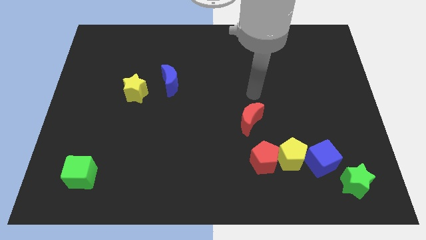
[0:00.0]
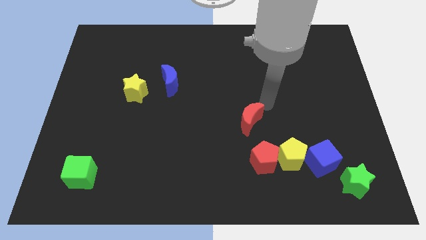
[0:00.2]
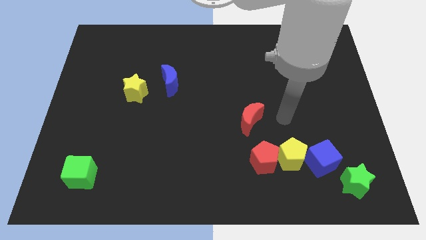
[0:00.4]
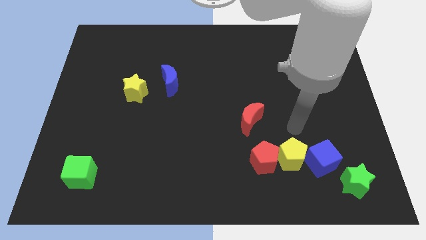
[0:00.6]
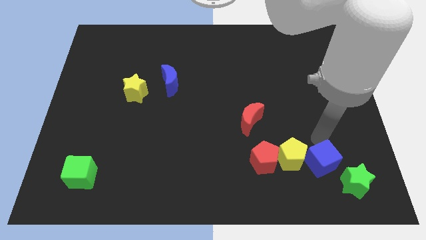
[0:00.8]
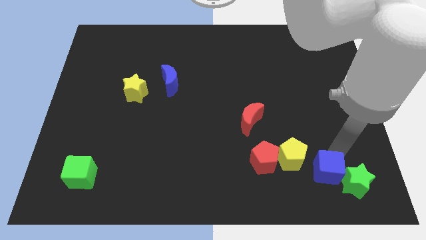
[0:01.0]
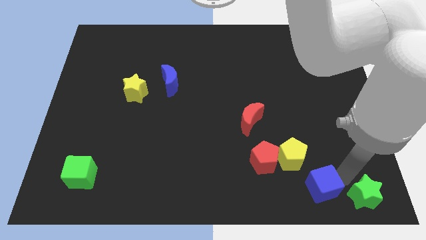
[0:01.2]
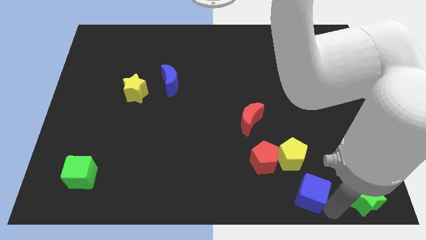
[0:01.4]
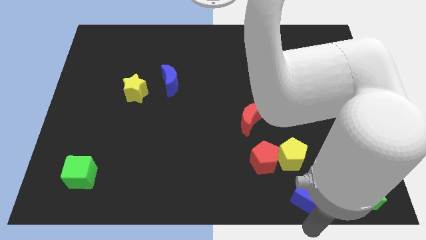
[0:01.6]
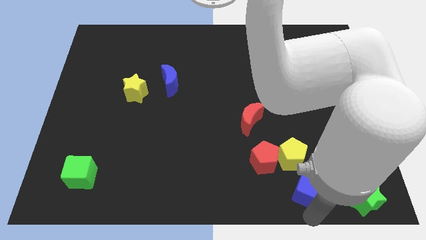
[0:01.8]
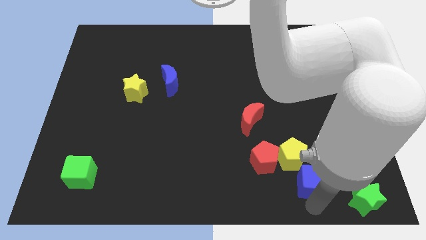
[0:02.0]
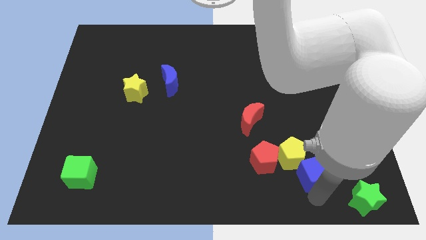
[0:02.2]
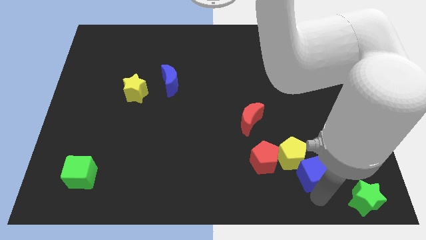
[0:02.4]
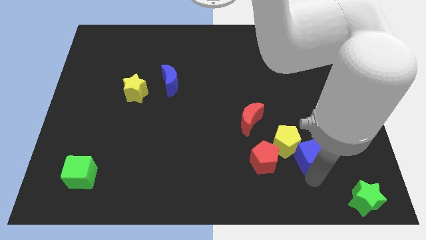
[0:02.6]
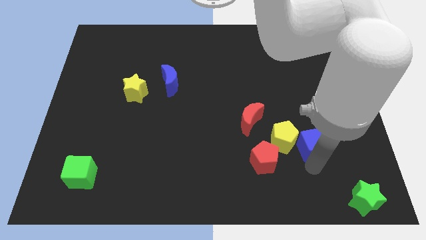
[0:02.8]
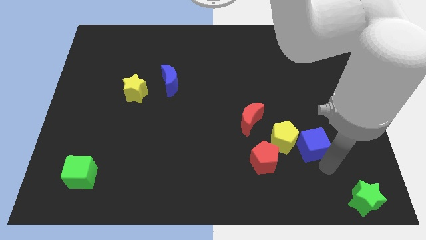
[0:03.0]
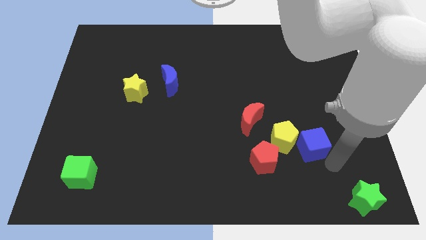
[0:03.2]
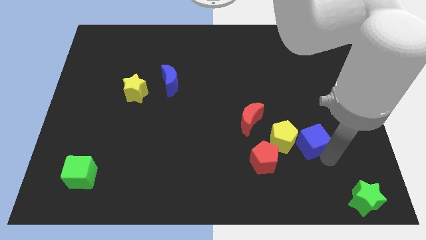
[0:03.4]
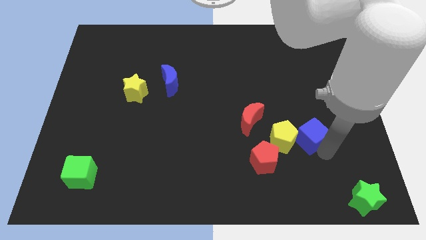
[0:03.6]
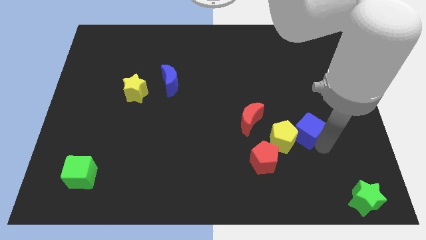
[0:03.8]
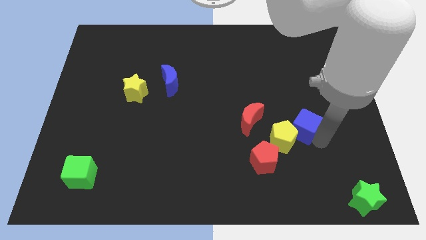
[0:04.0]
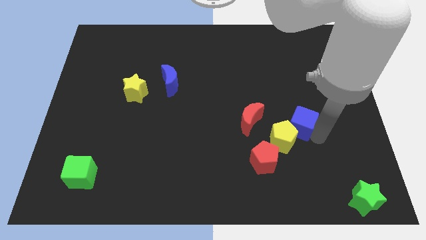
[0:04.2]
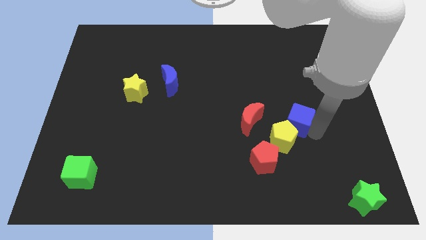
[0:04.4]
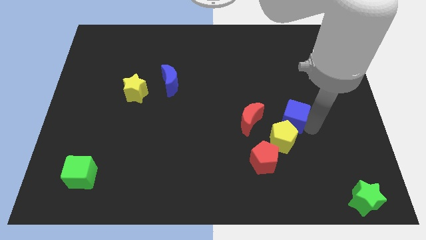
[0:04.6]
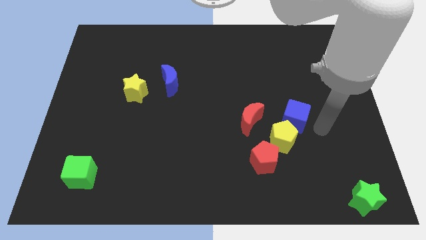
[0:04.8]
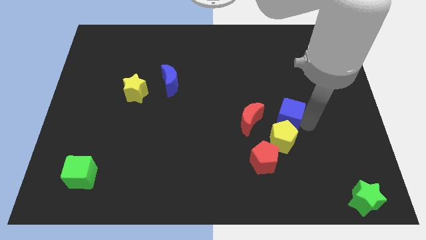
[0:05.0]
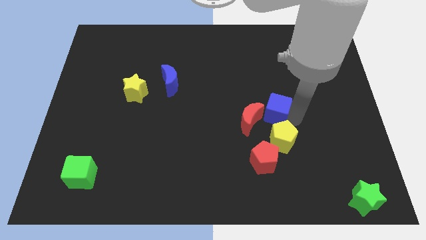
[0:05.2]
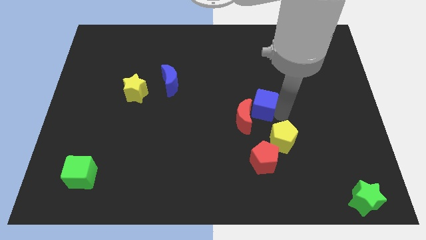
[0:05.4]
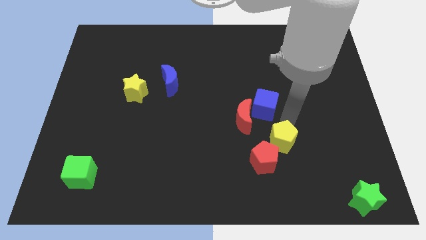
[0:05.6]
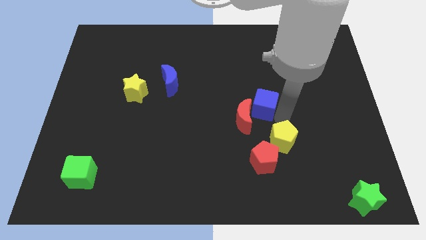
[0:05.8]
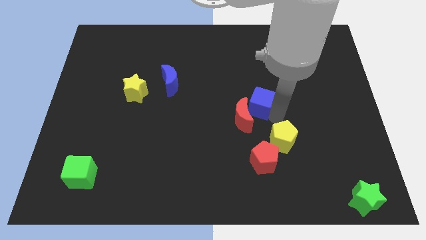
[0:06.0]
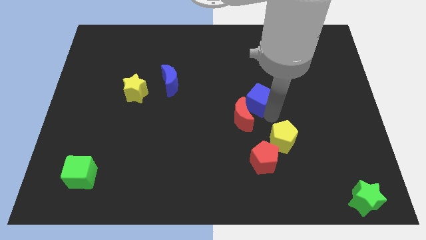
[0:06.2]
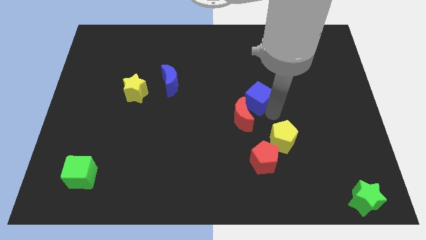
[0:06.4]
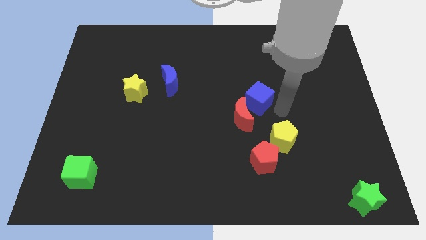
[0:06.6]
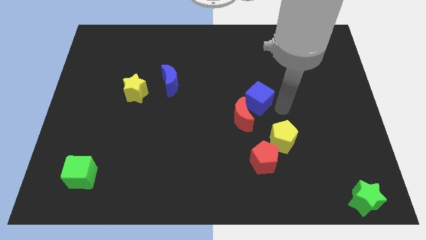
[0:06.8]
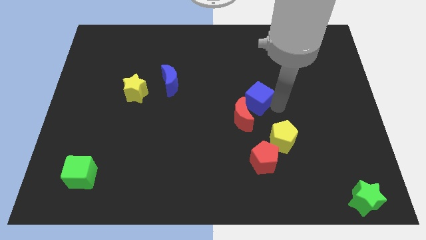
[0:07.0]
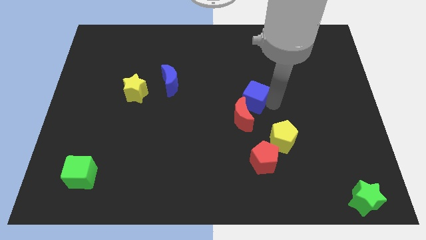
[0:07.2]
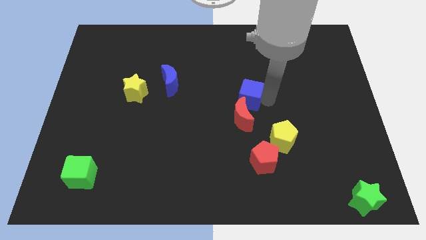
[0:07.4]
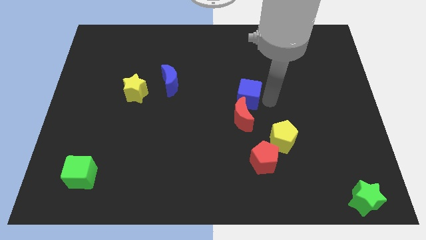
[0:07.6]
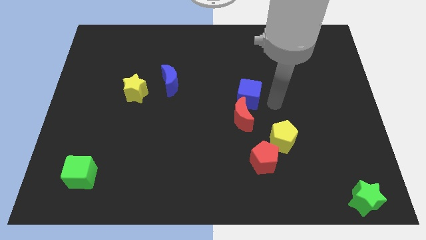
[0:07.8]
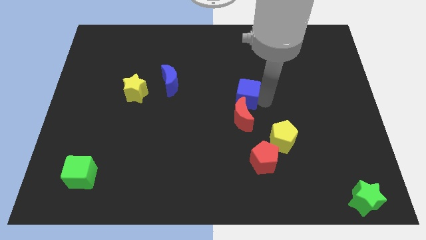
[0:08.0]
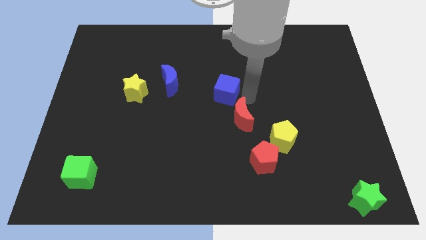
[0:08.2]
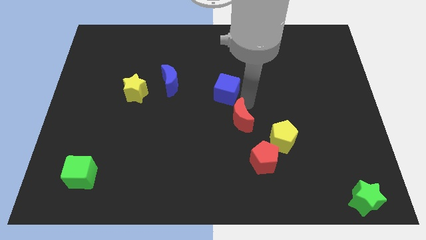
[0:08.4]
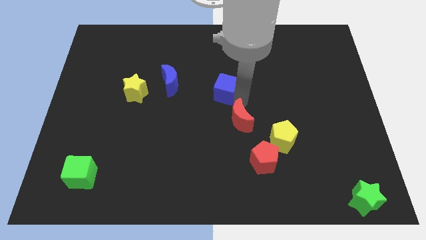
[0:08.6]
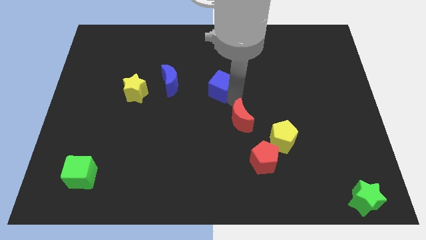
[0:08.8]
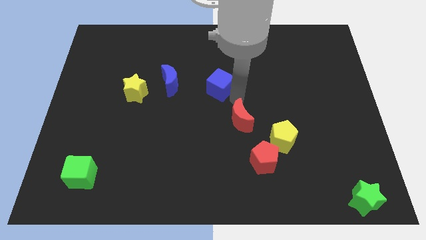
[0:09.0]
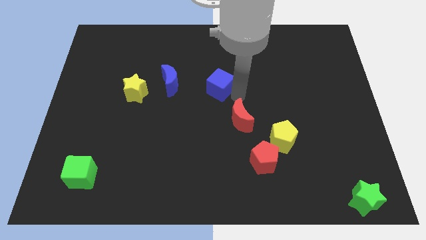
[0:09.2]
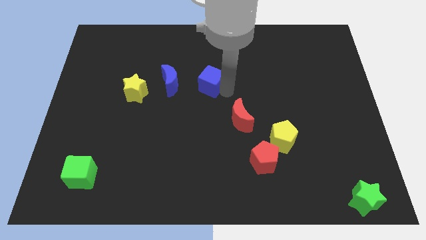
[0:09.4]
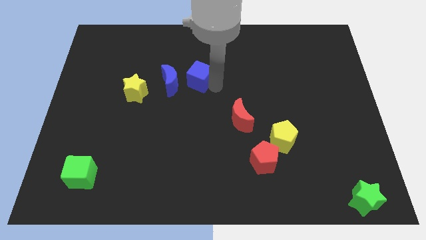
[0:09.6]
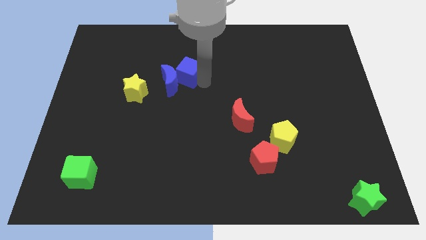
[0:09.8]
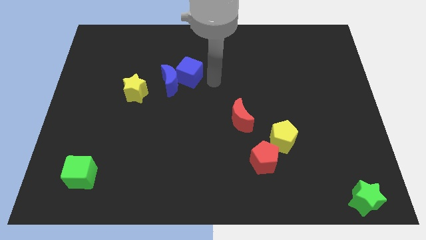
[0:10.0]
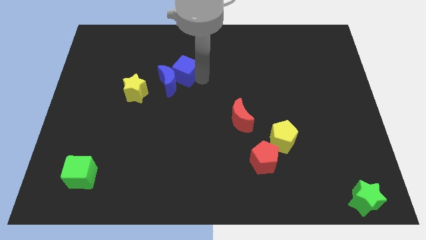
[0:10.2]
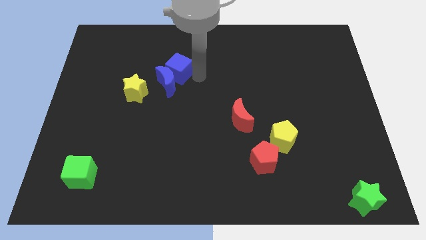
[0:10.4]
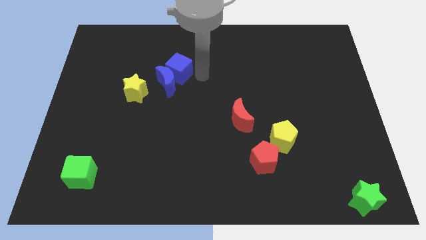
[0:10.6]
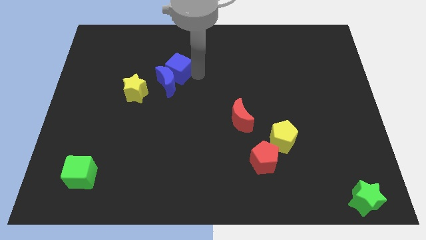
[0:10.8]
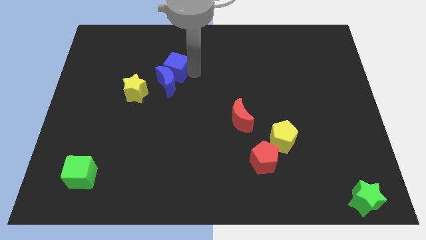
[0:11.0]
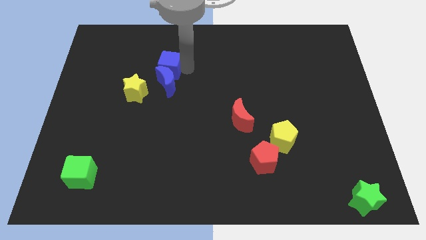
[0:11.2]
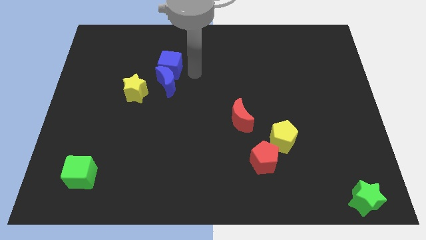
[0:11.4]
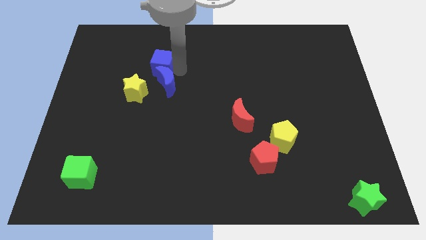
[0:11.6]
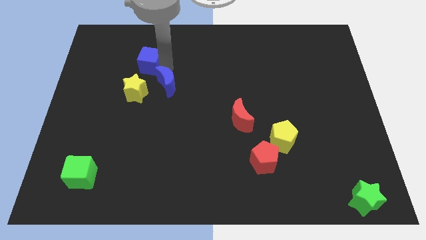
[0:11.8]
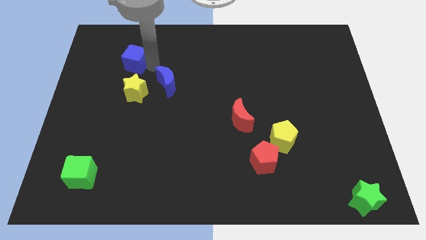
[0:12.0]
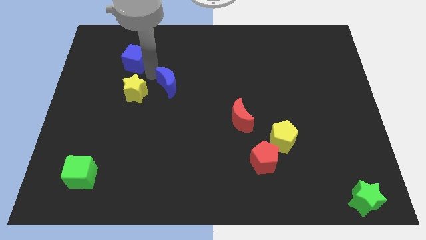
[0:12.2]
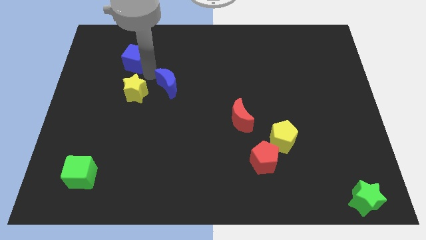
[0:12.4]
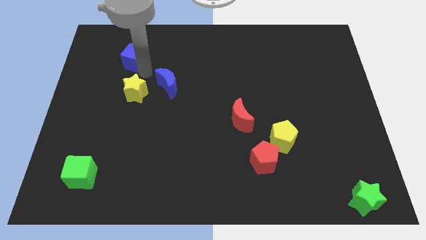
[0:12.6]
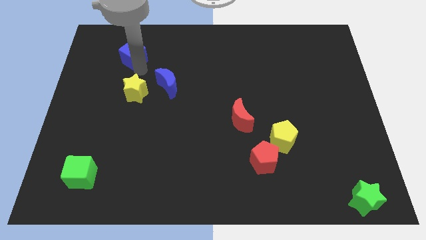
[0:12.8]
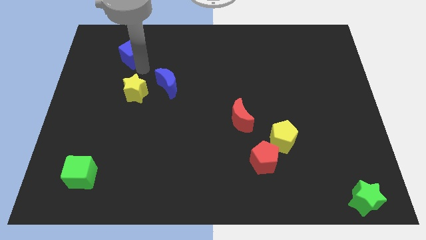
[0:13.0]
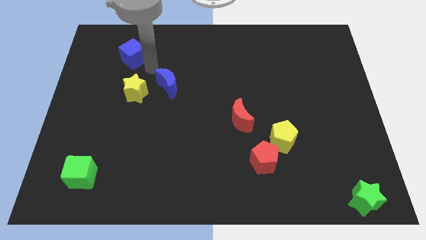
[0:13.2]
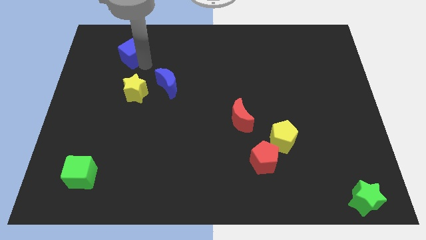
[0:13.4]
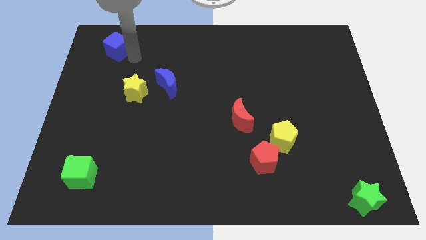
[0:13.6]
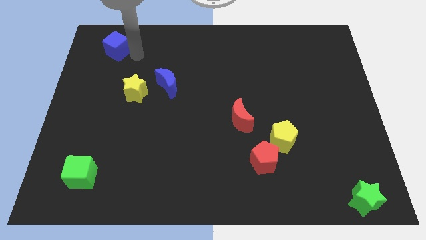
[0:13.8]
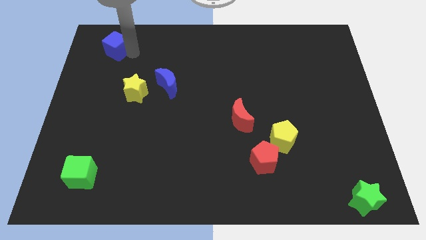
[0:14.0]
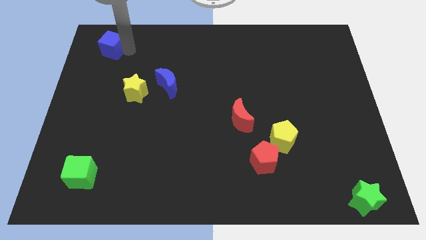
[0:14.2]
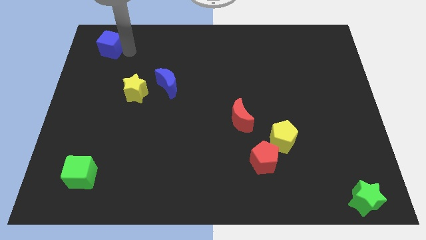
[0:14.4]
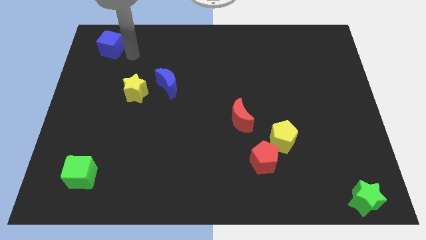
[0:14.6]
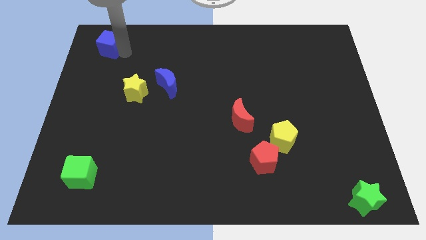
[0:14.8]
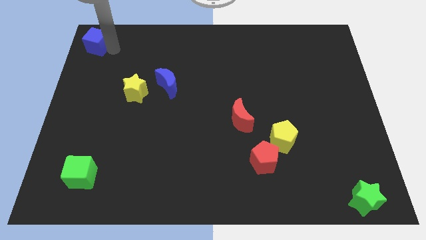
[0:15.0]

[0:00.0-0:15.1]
slide the blue cube to the upper left corner
